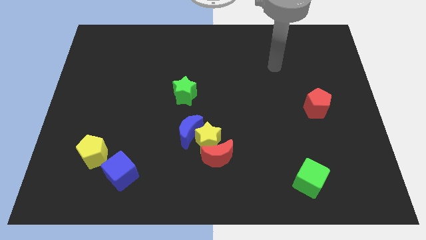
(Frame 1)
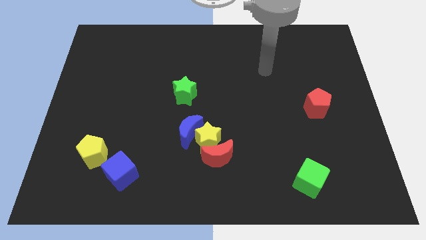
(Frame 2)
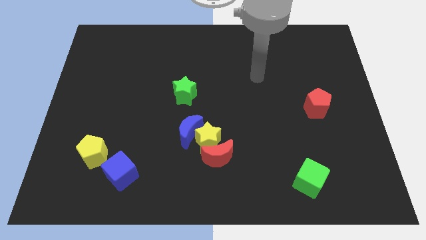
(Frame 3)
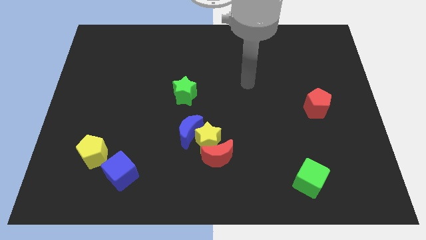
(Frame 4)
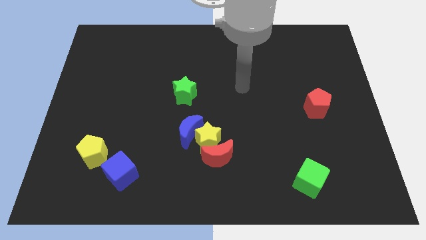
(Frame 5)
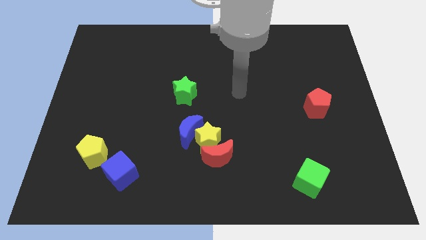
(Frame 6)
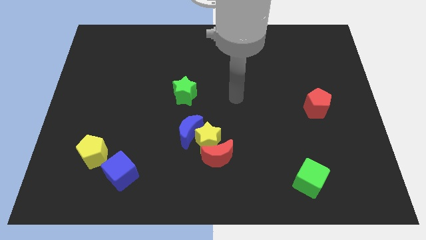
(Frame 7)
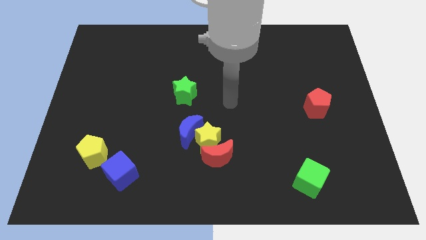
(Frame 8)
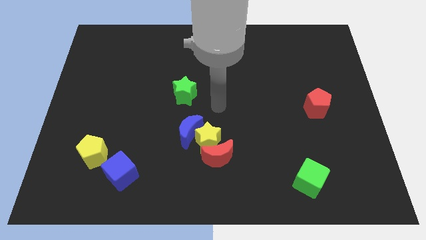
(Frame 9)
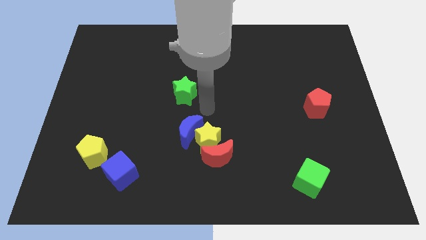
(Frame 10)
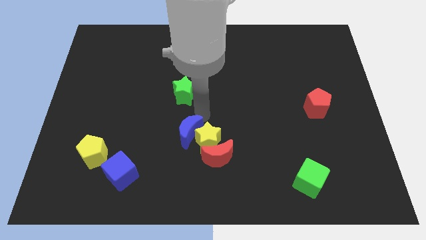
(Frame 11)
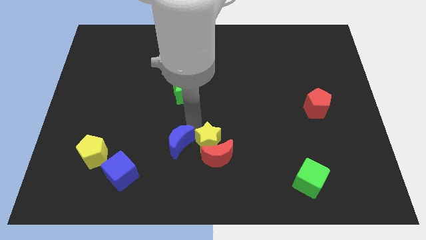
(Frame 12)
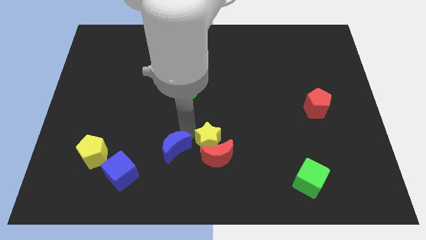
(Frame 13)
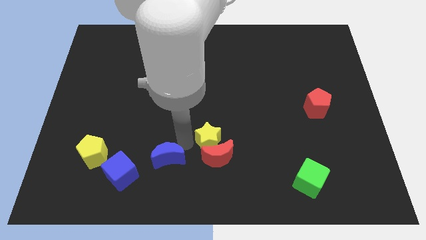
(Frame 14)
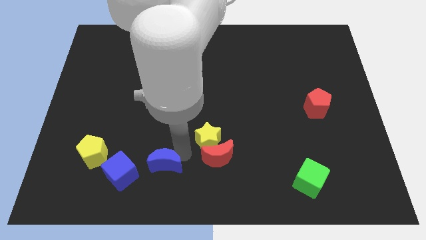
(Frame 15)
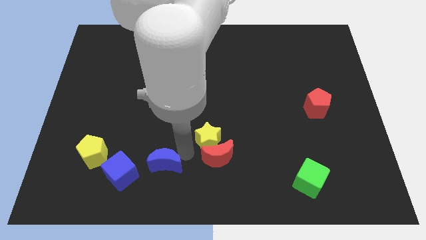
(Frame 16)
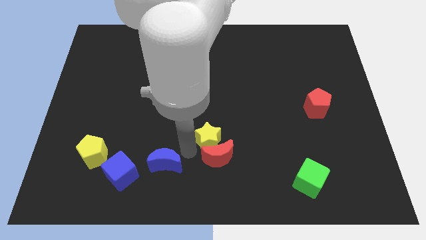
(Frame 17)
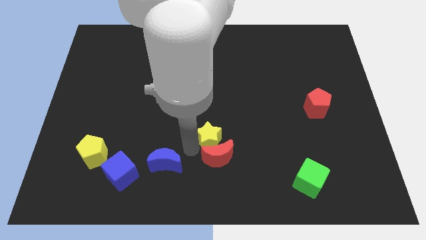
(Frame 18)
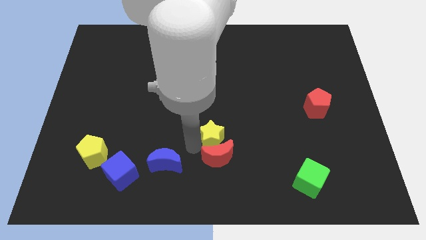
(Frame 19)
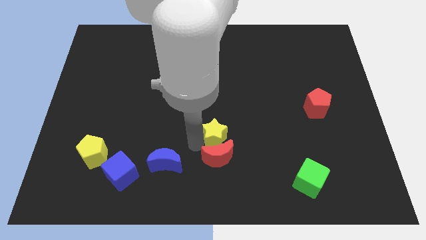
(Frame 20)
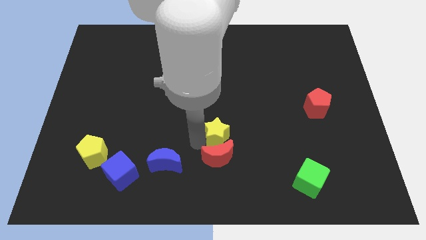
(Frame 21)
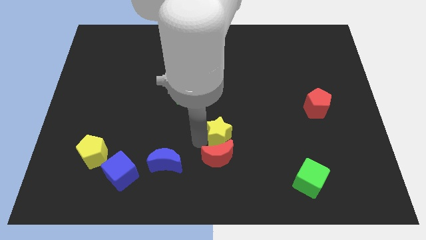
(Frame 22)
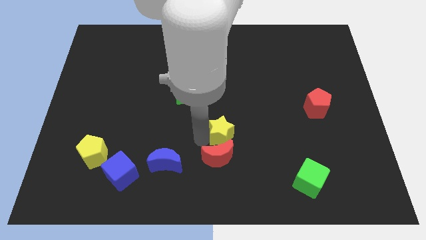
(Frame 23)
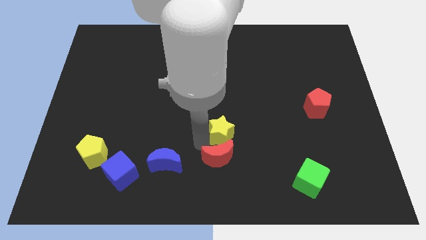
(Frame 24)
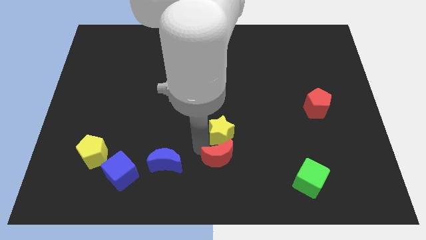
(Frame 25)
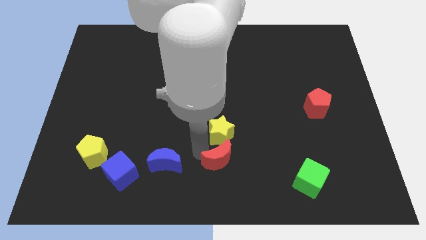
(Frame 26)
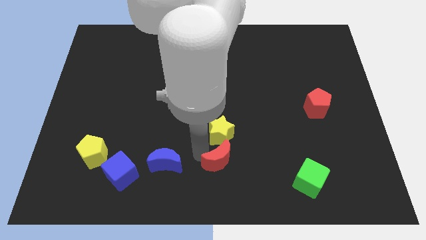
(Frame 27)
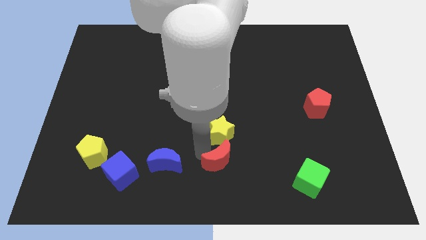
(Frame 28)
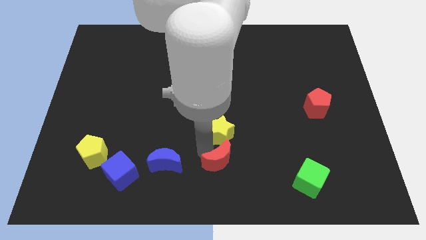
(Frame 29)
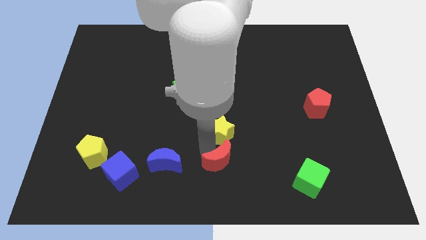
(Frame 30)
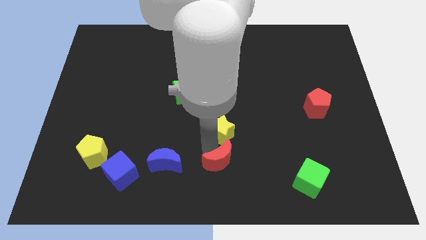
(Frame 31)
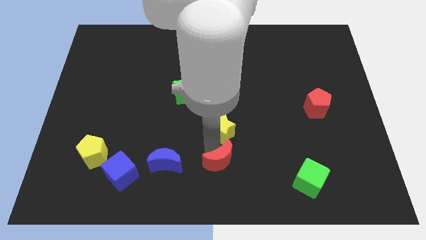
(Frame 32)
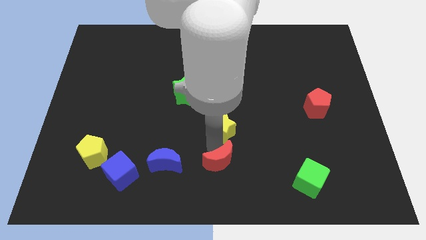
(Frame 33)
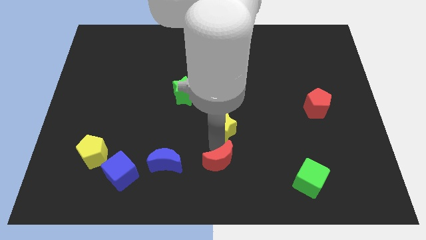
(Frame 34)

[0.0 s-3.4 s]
move the yellow star away from the red moon and blue moon

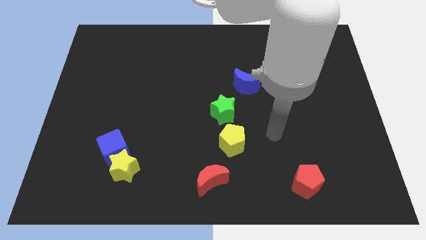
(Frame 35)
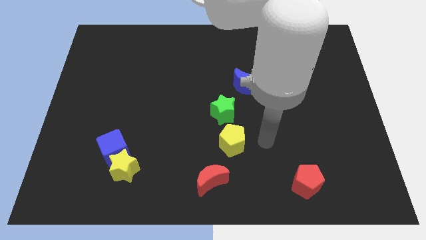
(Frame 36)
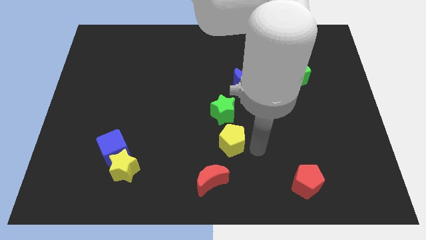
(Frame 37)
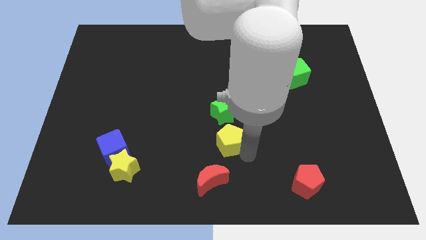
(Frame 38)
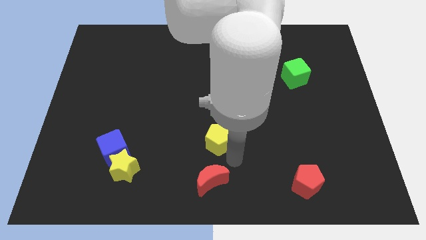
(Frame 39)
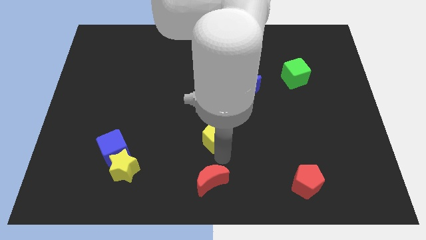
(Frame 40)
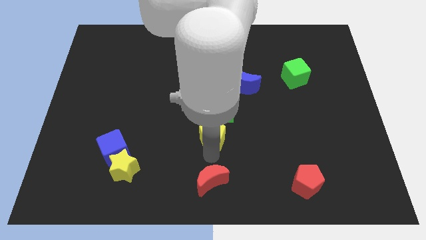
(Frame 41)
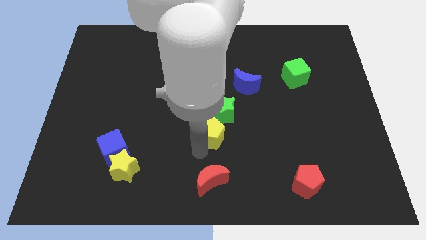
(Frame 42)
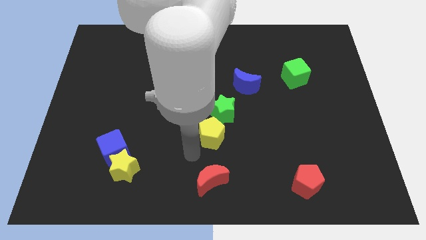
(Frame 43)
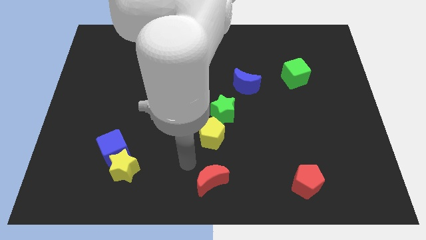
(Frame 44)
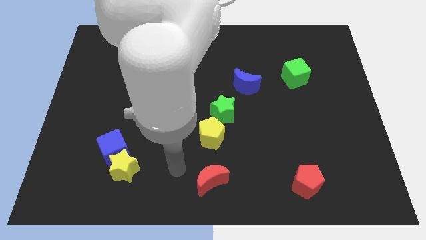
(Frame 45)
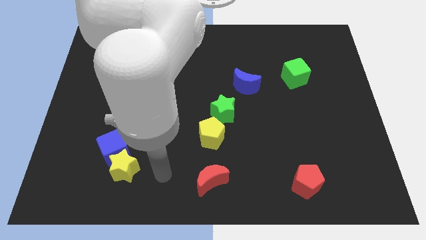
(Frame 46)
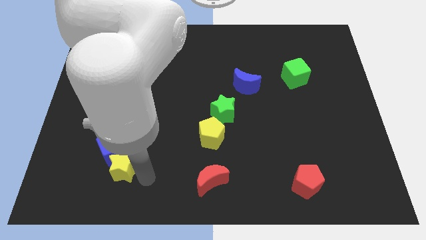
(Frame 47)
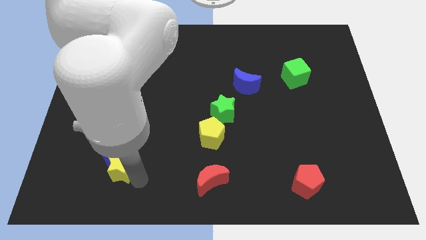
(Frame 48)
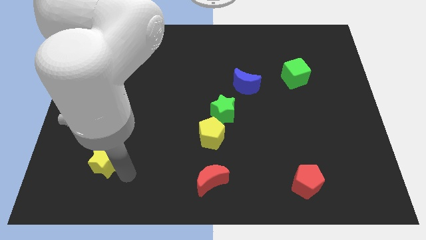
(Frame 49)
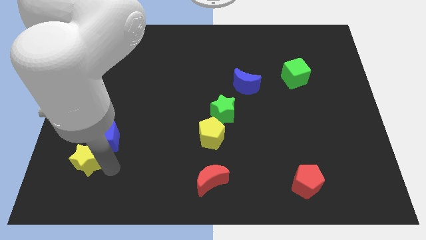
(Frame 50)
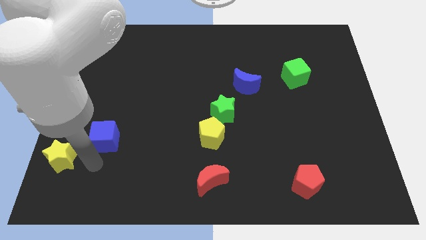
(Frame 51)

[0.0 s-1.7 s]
move the blue cube away from the yellow star

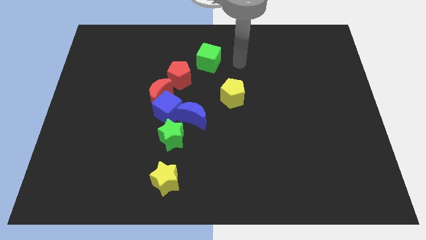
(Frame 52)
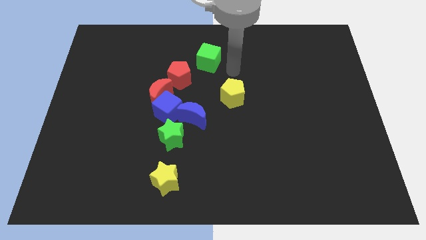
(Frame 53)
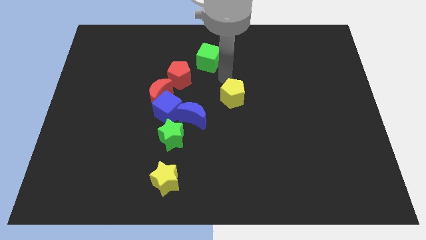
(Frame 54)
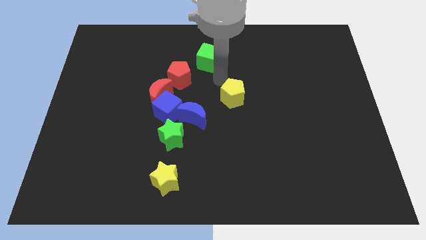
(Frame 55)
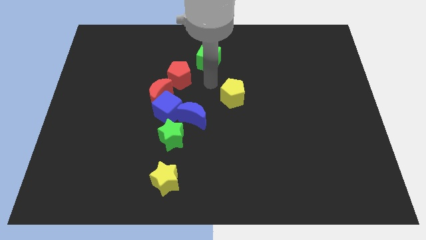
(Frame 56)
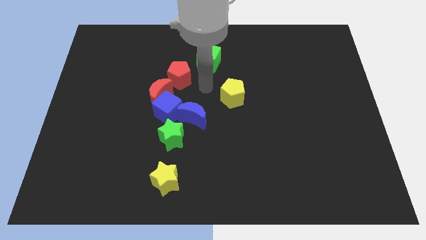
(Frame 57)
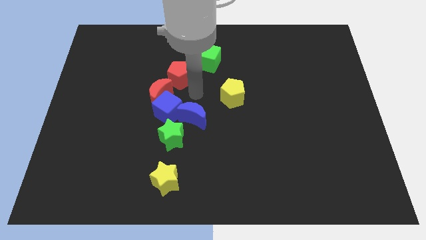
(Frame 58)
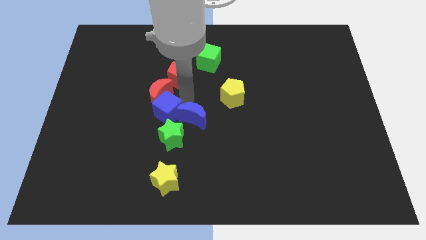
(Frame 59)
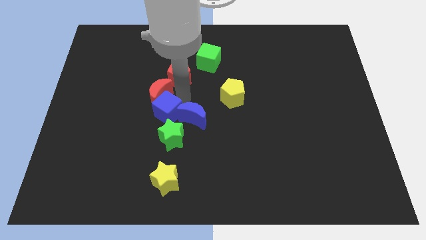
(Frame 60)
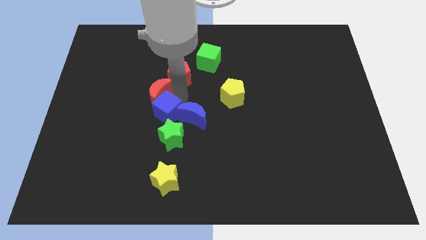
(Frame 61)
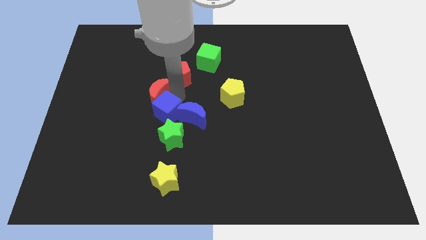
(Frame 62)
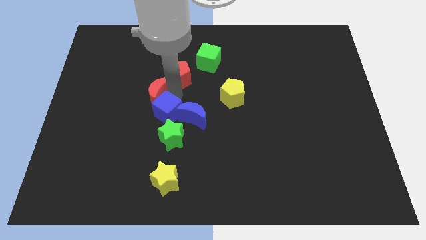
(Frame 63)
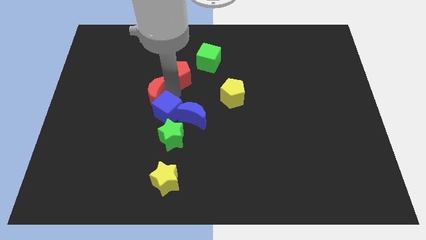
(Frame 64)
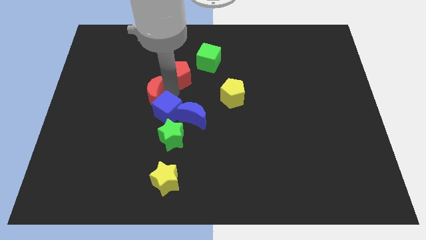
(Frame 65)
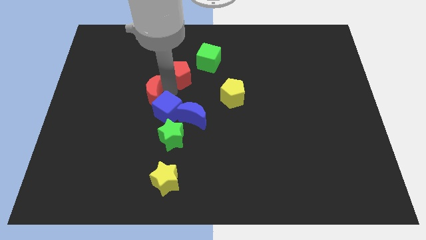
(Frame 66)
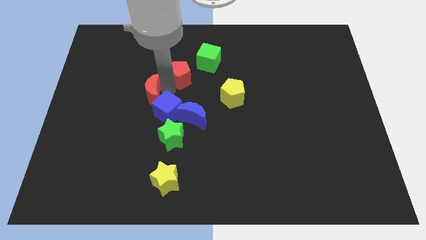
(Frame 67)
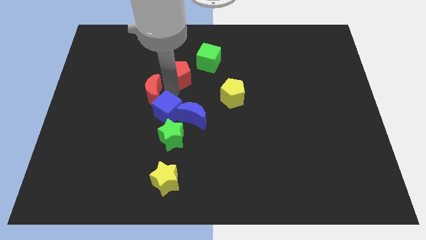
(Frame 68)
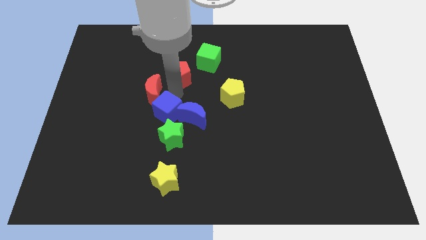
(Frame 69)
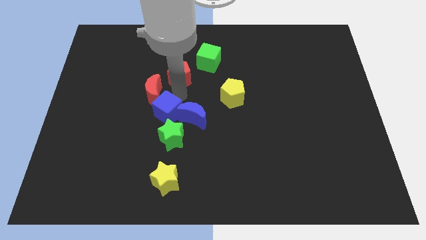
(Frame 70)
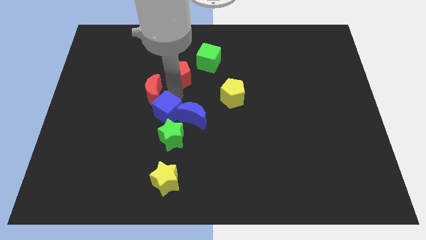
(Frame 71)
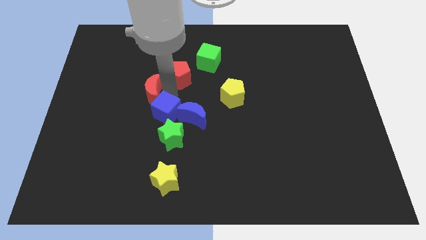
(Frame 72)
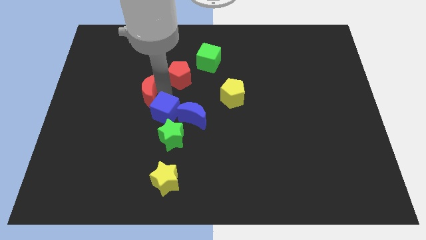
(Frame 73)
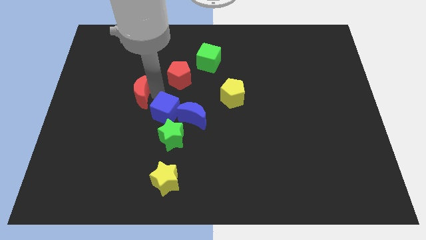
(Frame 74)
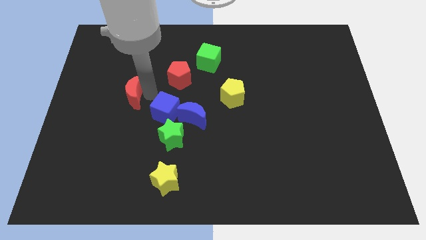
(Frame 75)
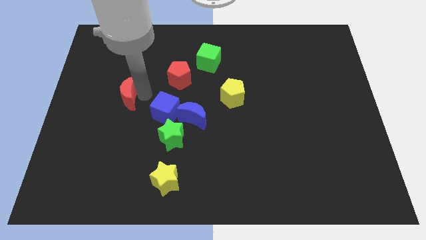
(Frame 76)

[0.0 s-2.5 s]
separate the red moon from the blue cube and red pentagon

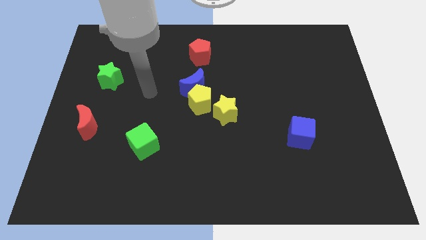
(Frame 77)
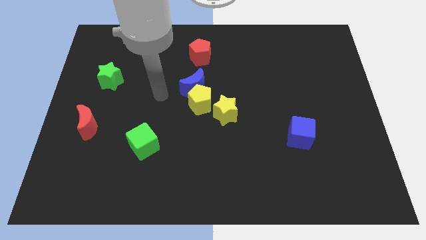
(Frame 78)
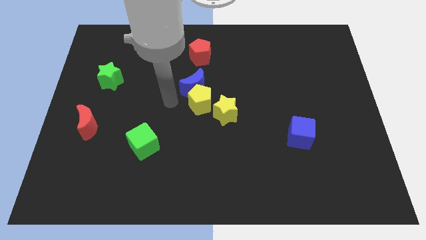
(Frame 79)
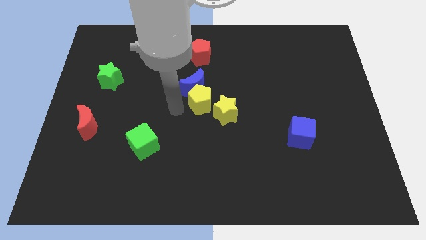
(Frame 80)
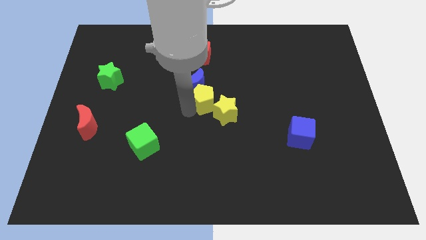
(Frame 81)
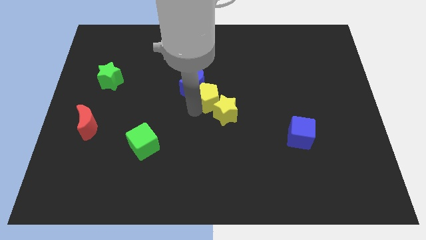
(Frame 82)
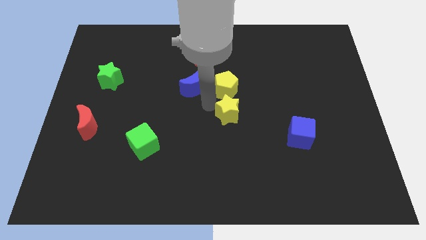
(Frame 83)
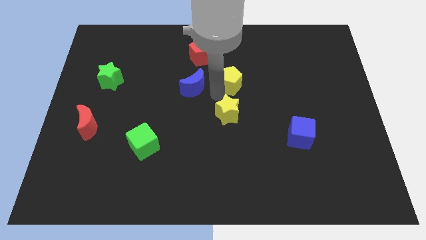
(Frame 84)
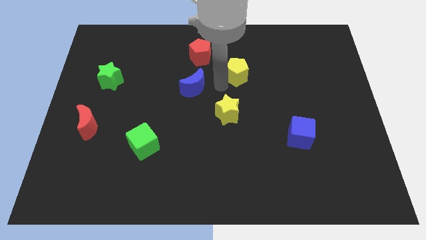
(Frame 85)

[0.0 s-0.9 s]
pull the blue moon apart from the yellow pentagon

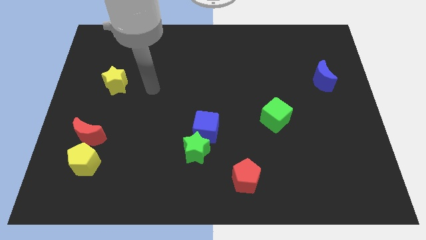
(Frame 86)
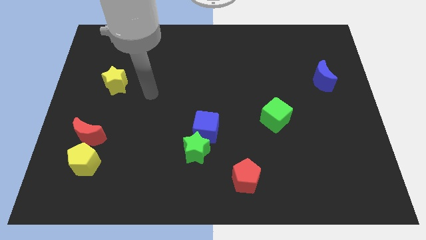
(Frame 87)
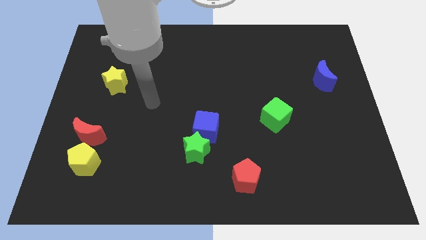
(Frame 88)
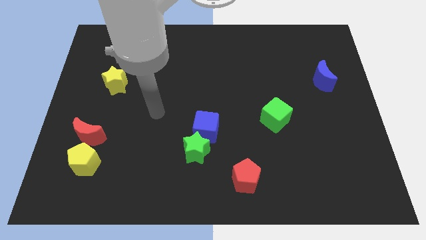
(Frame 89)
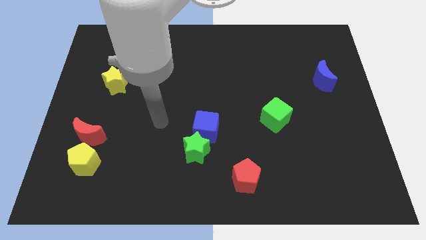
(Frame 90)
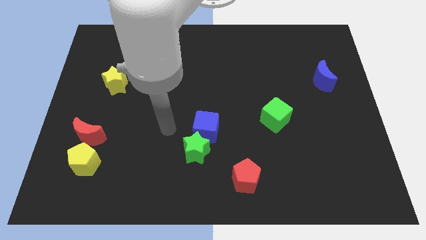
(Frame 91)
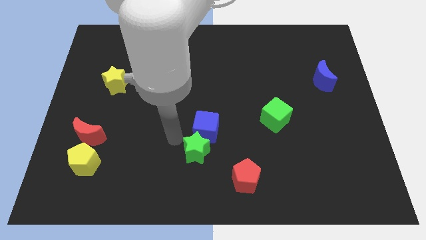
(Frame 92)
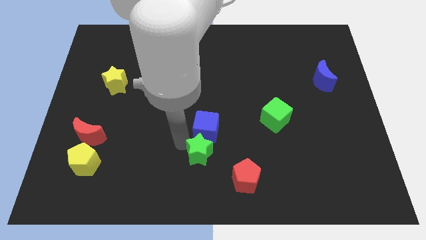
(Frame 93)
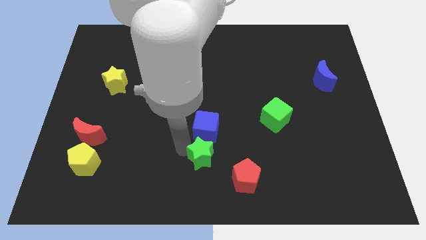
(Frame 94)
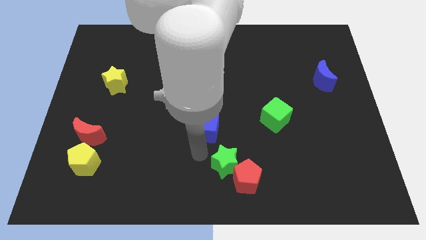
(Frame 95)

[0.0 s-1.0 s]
separate the blue cube from the green star
